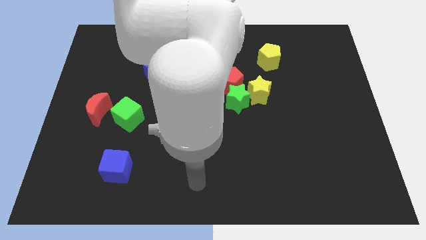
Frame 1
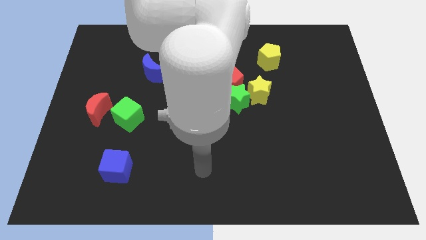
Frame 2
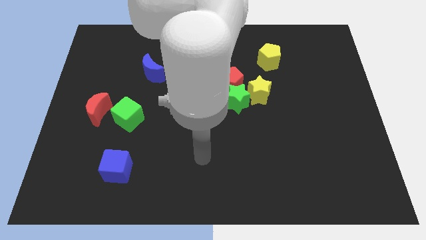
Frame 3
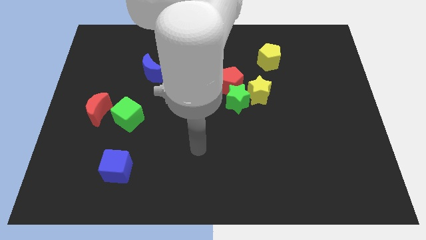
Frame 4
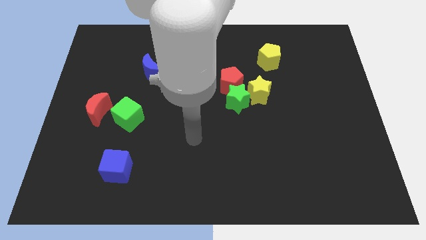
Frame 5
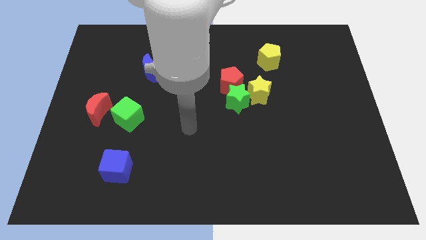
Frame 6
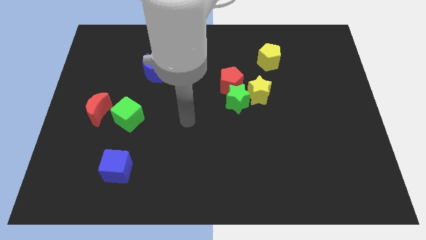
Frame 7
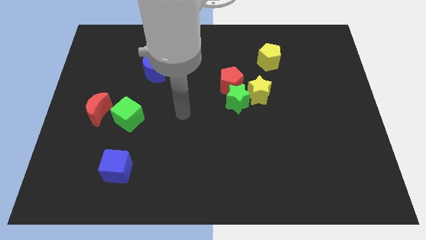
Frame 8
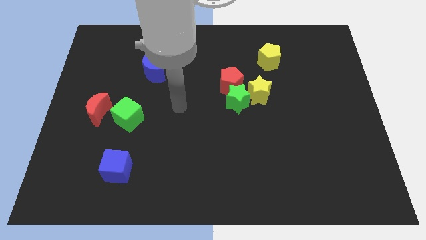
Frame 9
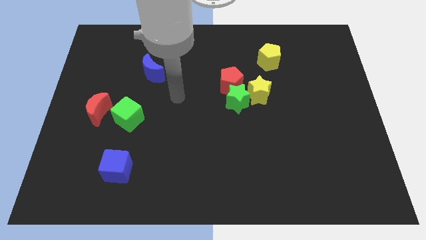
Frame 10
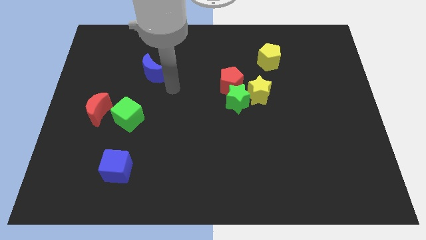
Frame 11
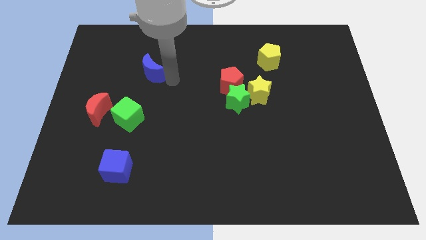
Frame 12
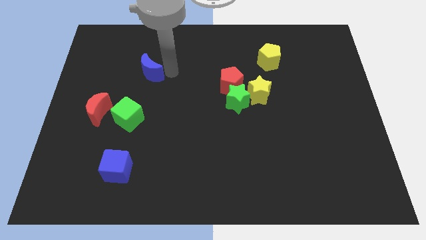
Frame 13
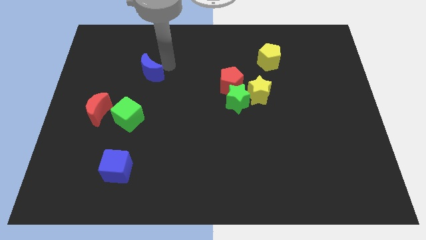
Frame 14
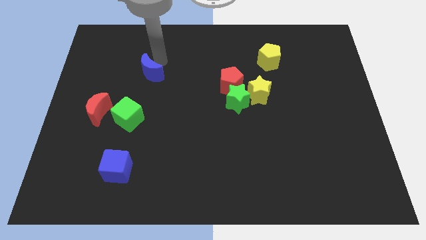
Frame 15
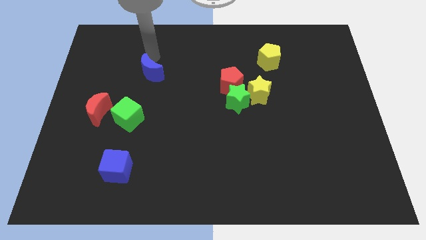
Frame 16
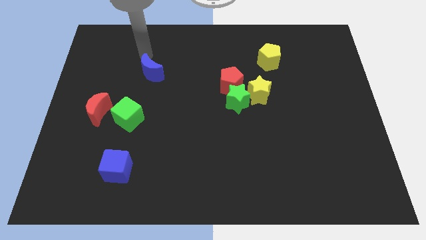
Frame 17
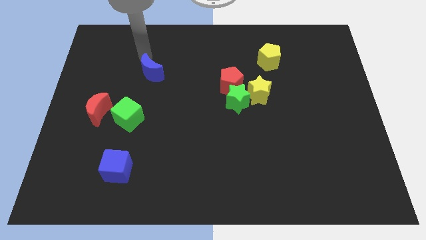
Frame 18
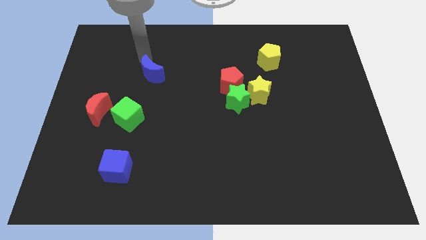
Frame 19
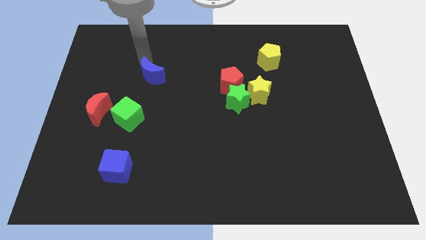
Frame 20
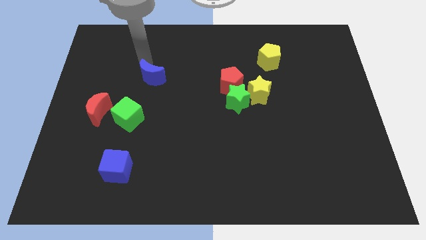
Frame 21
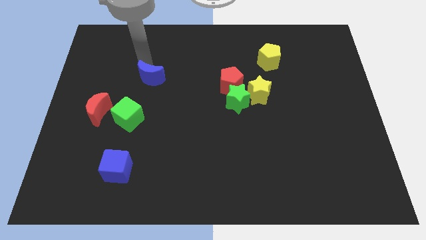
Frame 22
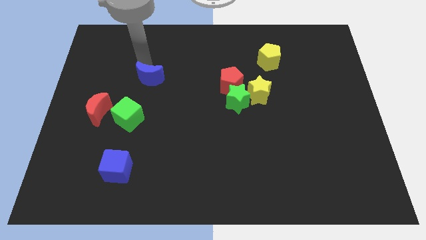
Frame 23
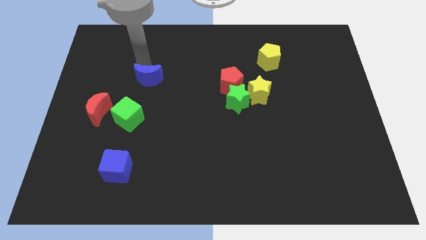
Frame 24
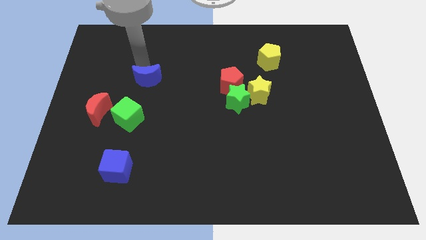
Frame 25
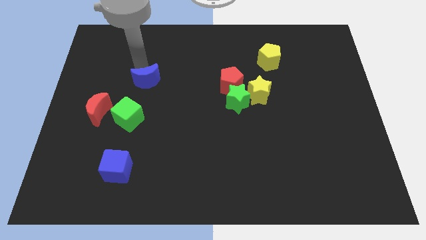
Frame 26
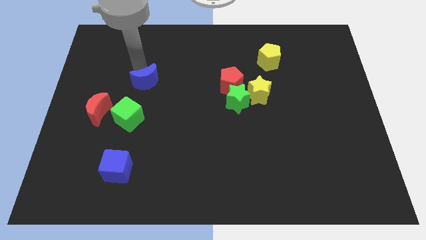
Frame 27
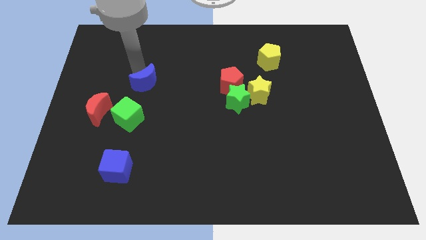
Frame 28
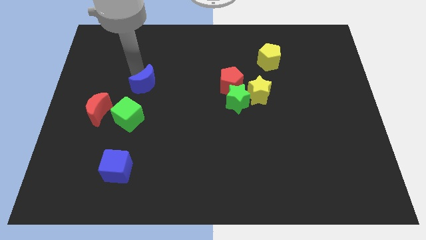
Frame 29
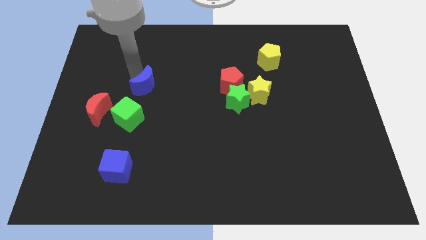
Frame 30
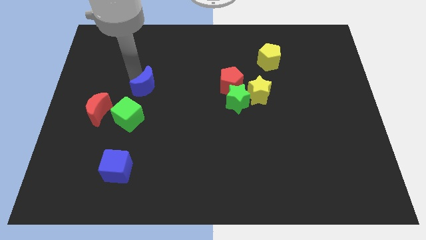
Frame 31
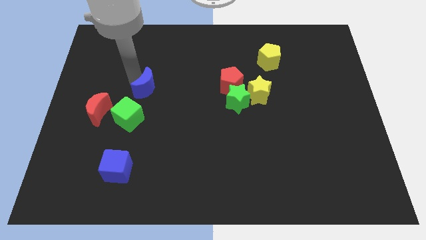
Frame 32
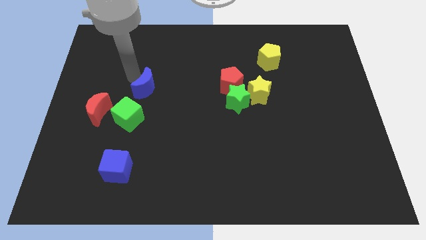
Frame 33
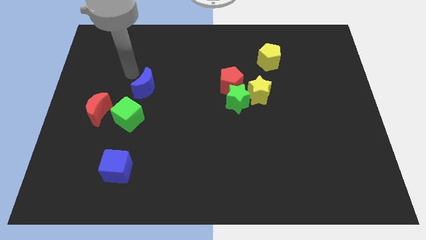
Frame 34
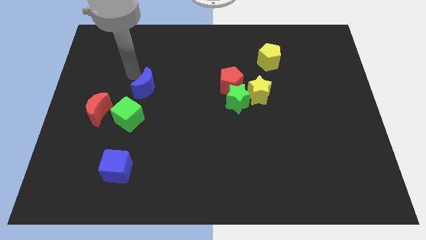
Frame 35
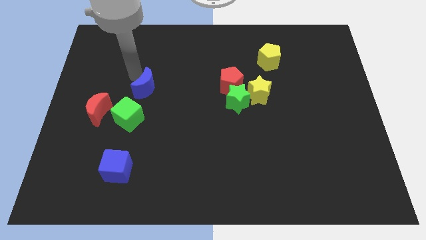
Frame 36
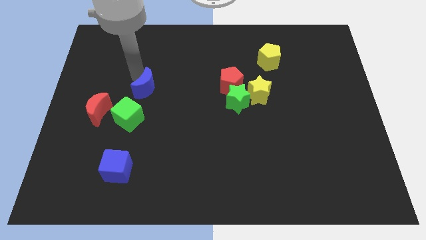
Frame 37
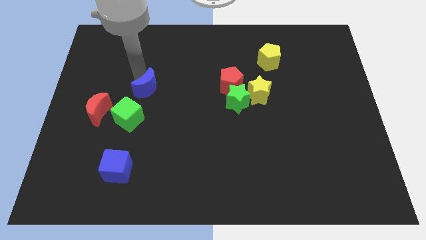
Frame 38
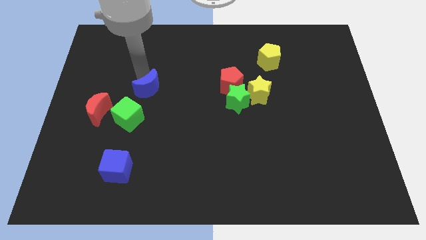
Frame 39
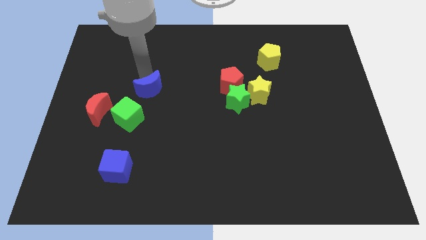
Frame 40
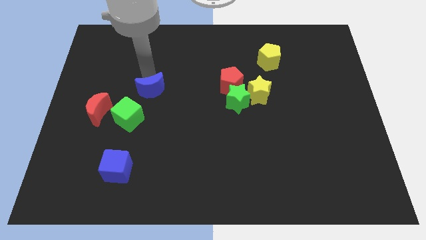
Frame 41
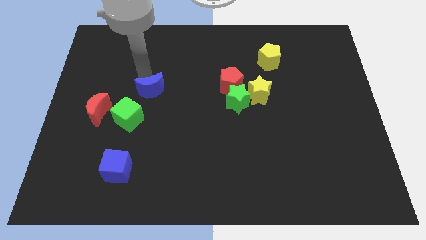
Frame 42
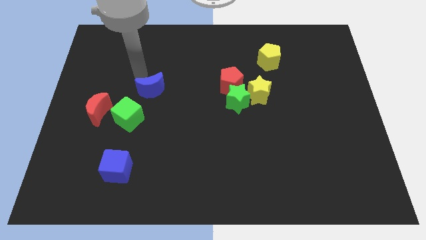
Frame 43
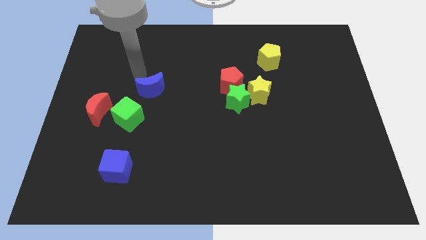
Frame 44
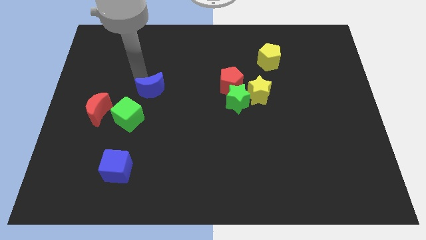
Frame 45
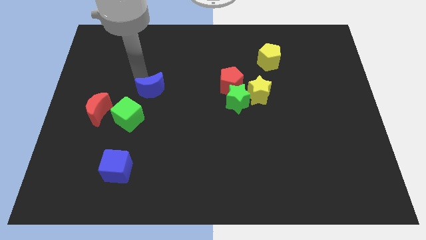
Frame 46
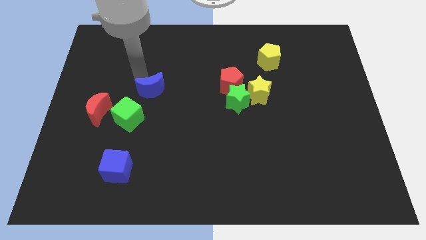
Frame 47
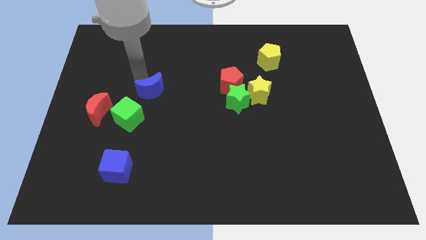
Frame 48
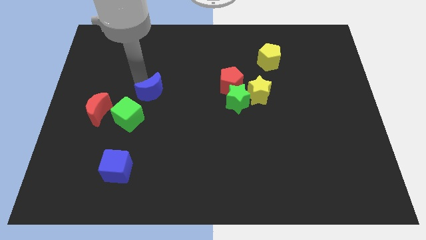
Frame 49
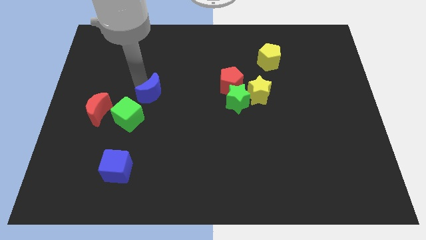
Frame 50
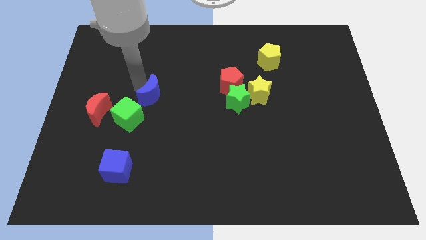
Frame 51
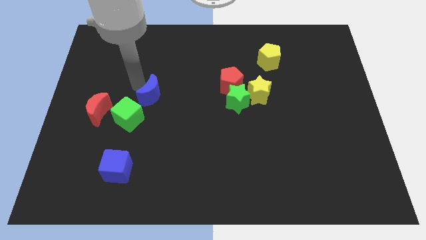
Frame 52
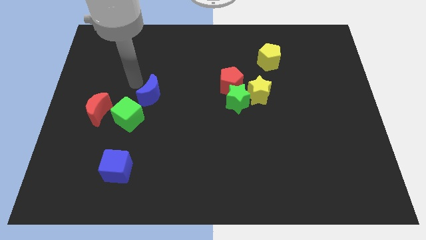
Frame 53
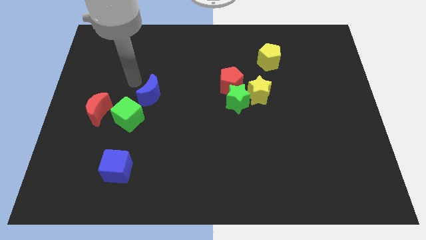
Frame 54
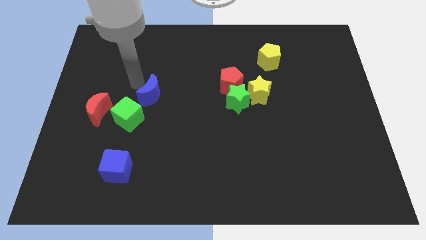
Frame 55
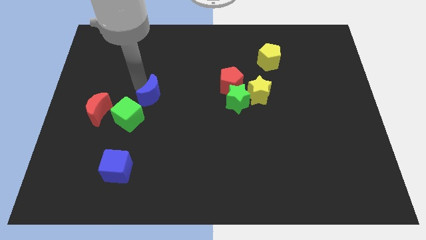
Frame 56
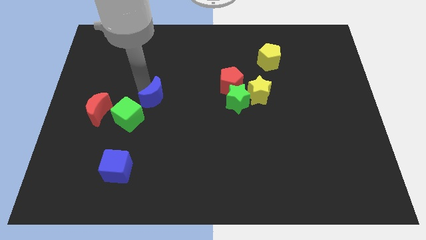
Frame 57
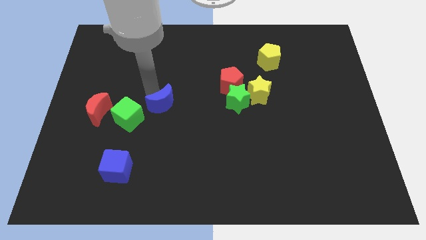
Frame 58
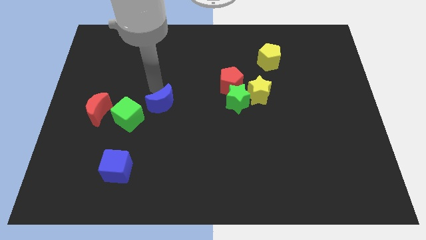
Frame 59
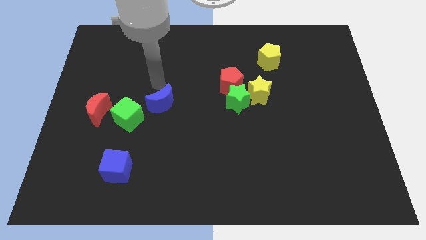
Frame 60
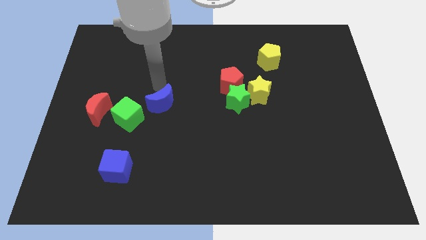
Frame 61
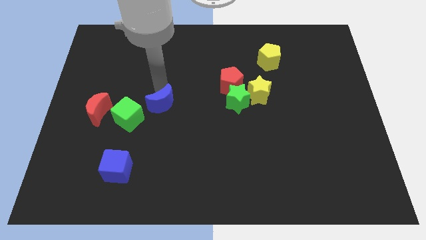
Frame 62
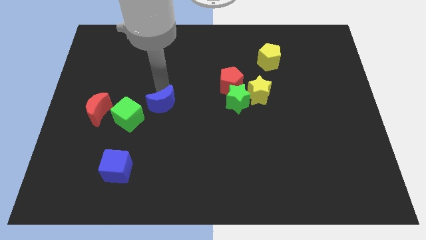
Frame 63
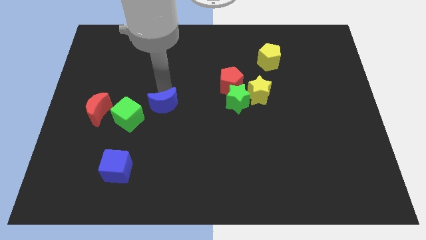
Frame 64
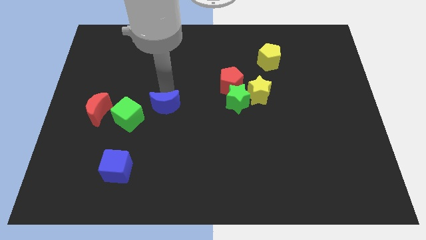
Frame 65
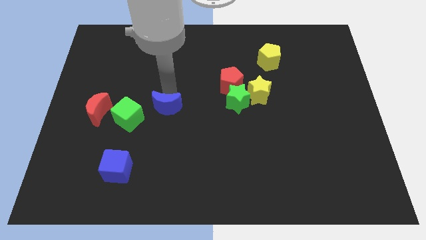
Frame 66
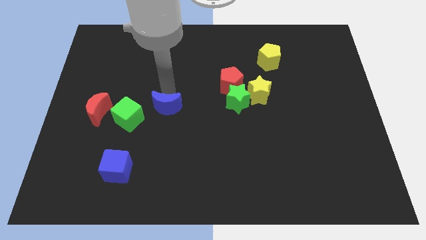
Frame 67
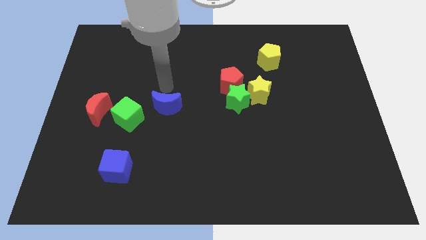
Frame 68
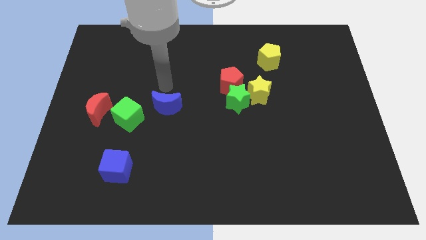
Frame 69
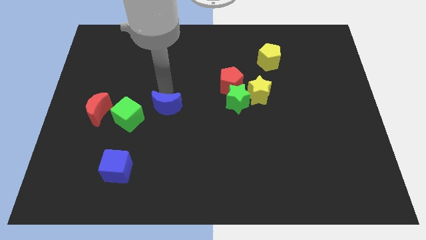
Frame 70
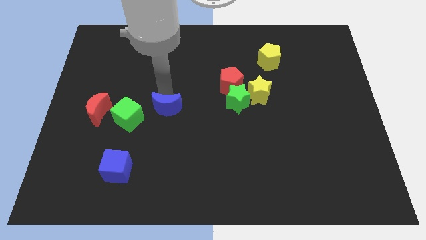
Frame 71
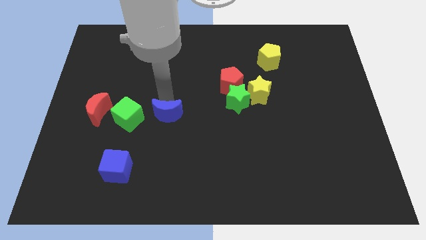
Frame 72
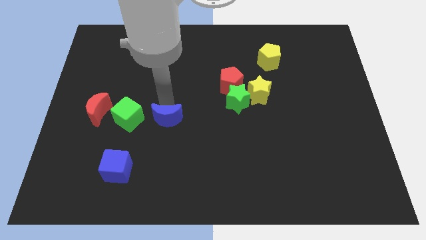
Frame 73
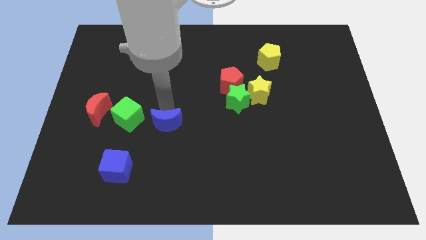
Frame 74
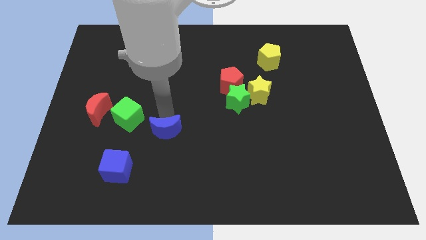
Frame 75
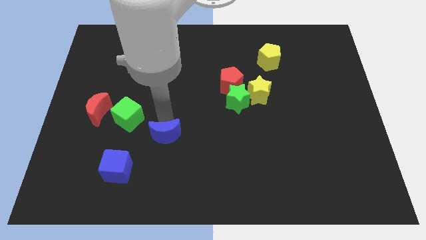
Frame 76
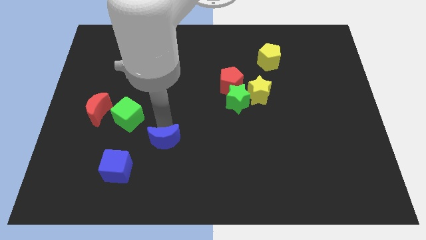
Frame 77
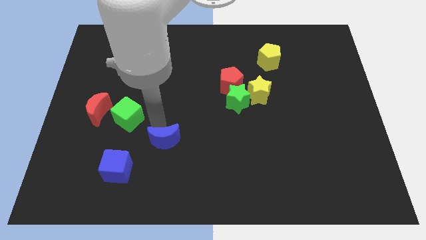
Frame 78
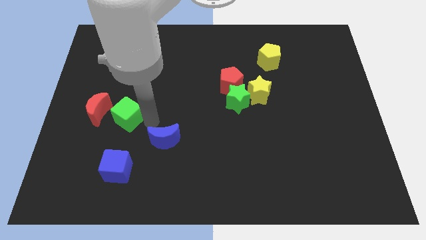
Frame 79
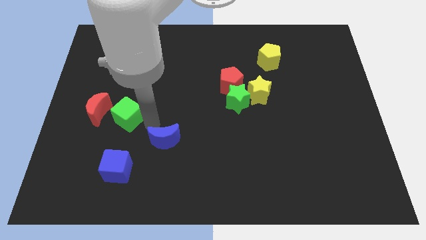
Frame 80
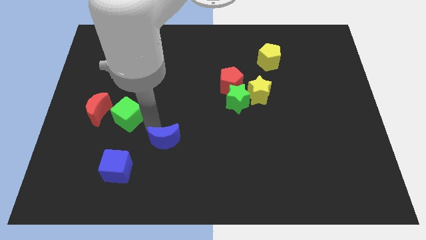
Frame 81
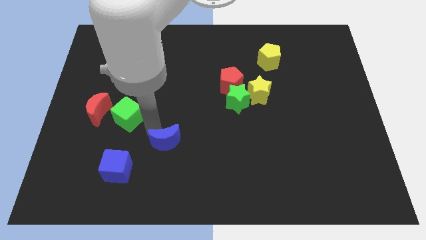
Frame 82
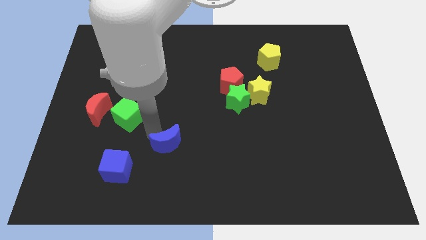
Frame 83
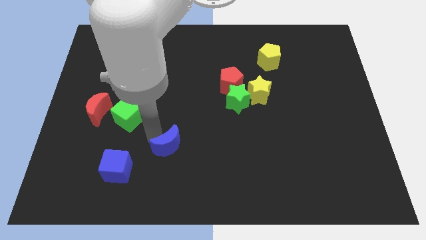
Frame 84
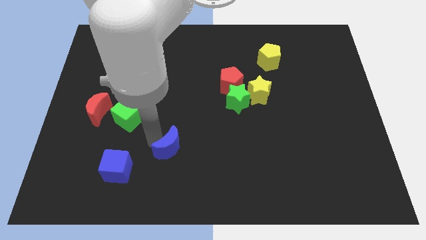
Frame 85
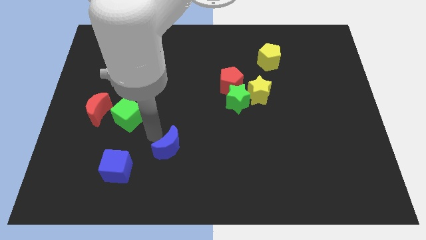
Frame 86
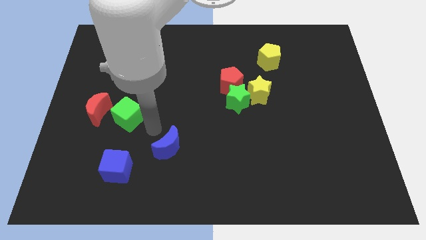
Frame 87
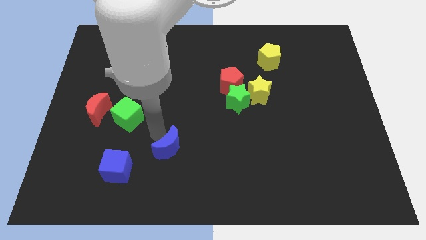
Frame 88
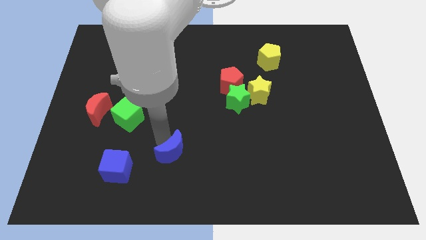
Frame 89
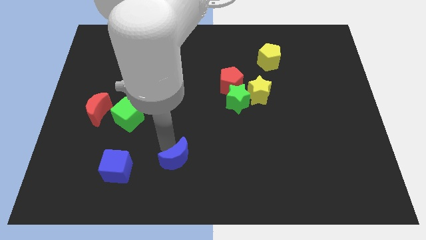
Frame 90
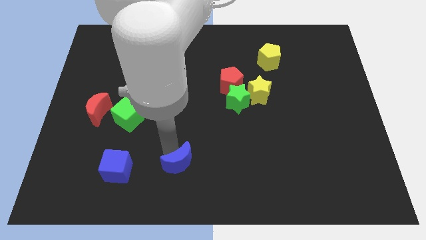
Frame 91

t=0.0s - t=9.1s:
push the blue moon to the bottom
